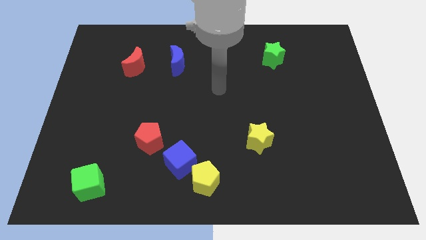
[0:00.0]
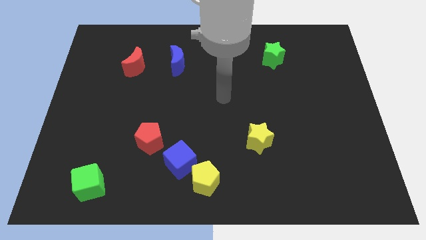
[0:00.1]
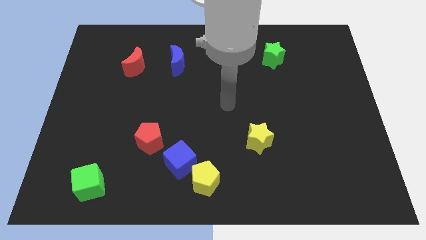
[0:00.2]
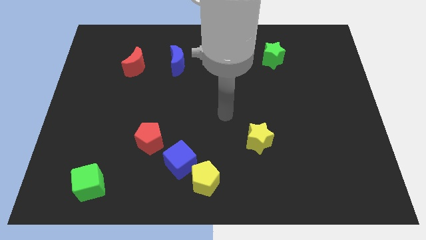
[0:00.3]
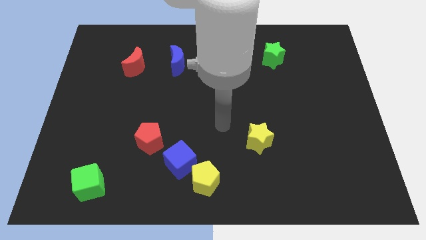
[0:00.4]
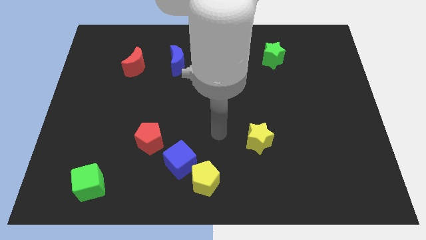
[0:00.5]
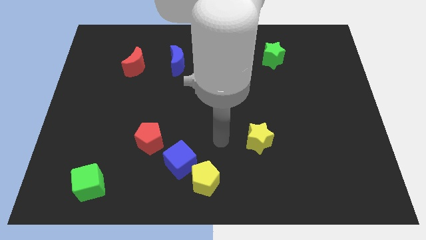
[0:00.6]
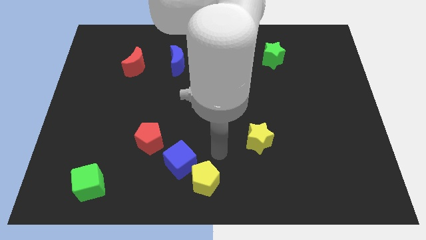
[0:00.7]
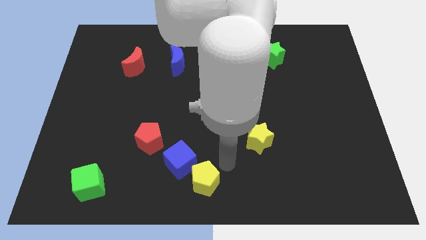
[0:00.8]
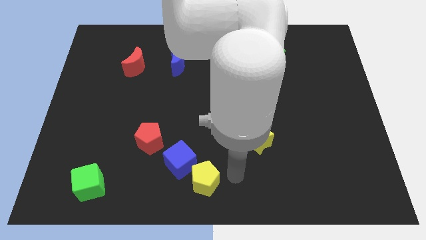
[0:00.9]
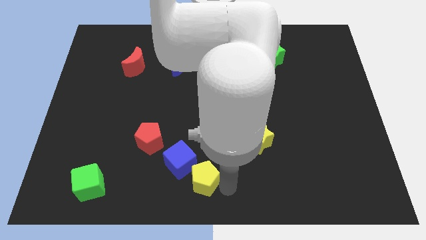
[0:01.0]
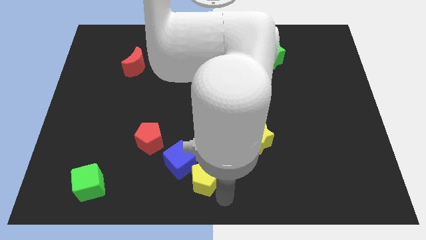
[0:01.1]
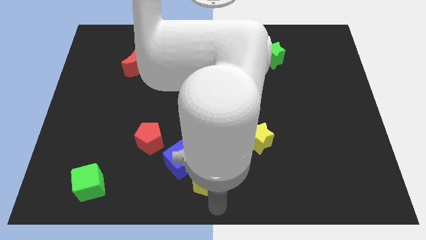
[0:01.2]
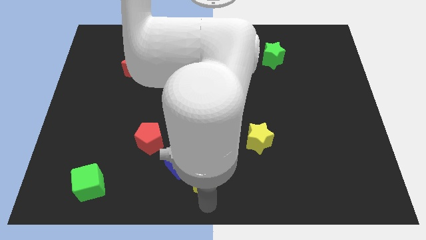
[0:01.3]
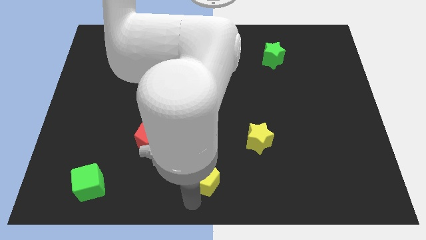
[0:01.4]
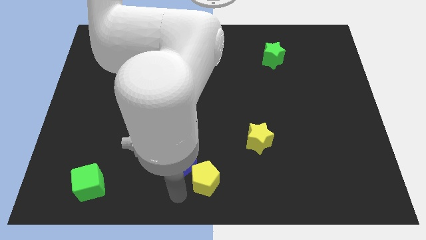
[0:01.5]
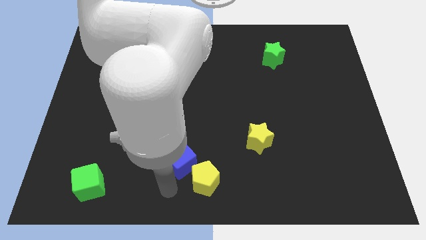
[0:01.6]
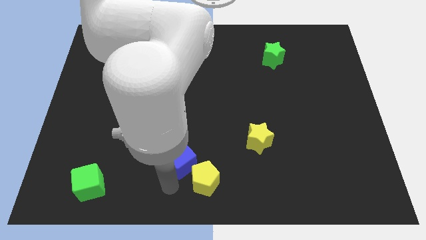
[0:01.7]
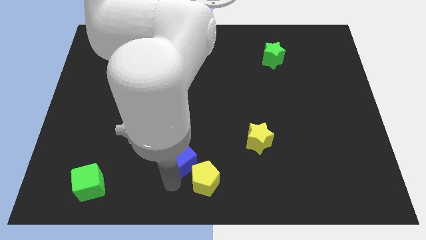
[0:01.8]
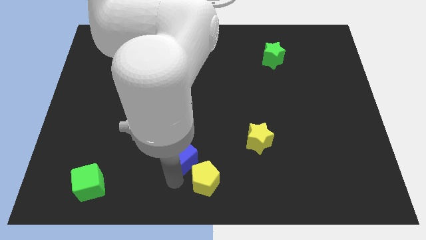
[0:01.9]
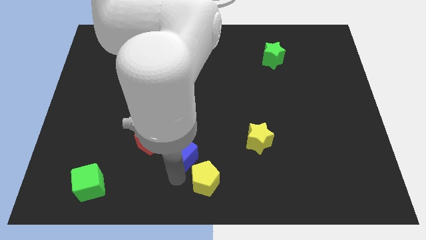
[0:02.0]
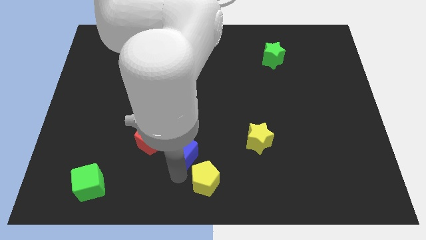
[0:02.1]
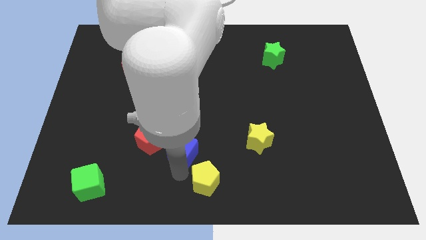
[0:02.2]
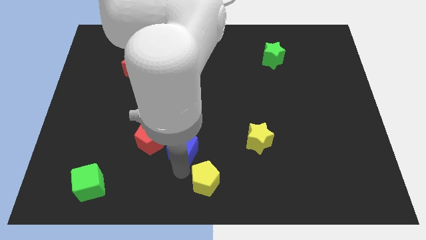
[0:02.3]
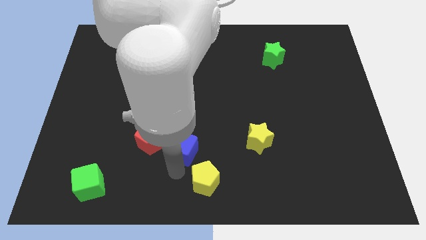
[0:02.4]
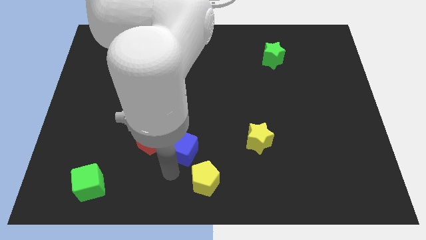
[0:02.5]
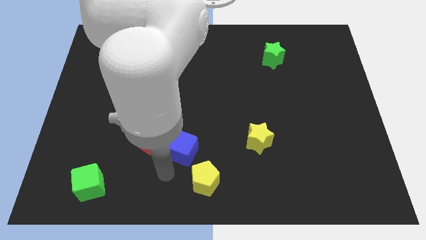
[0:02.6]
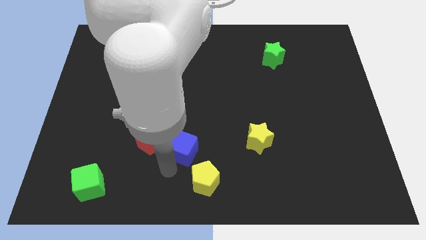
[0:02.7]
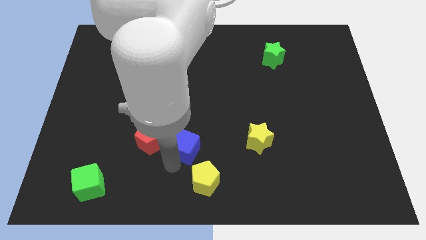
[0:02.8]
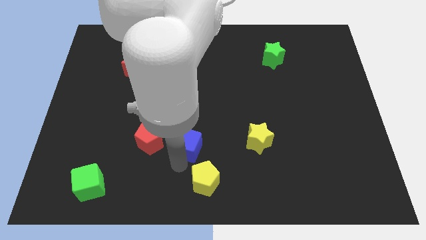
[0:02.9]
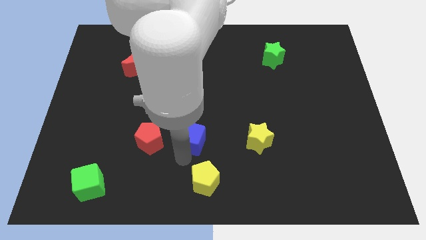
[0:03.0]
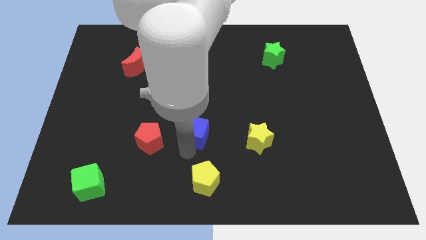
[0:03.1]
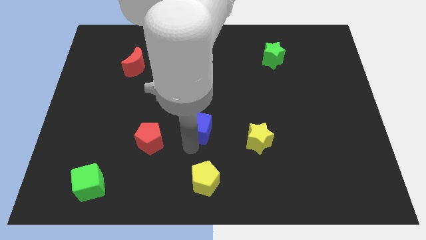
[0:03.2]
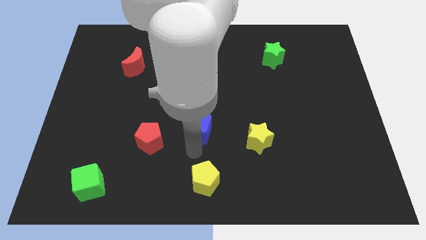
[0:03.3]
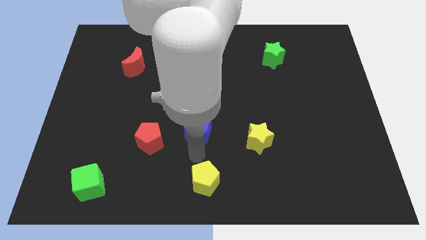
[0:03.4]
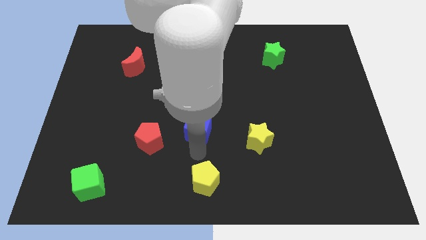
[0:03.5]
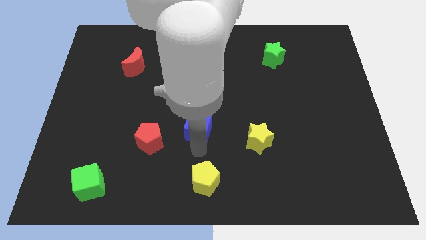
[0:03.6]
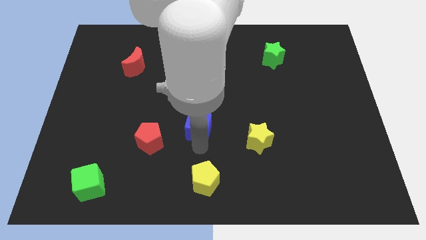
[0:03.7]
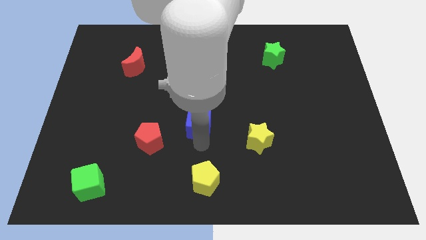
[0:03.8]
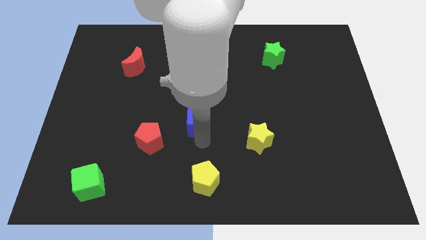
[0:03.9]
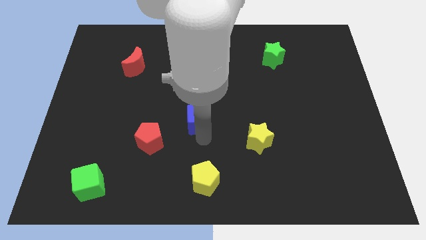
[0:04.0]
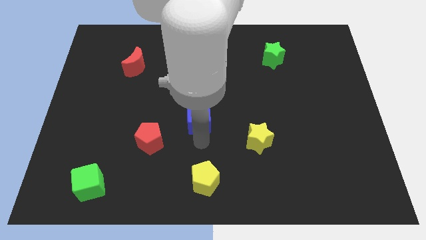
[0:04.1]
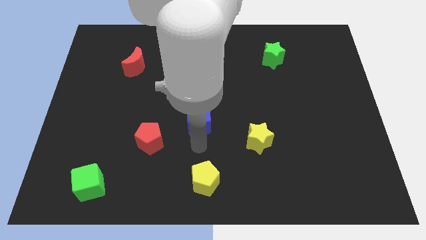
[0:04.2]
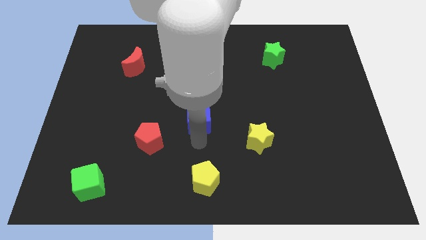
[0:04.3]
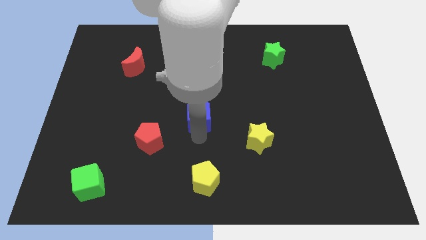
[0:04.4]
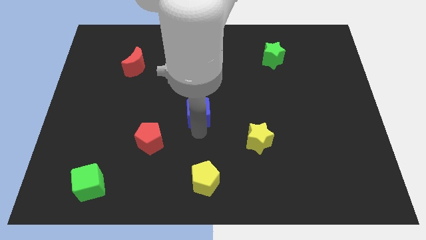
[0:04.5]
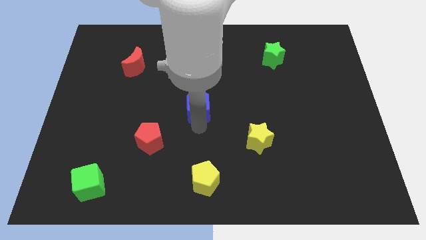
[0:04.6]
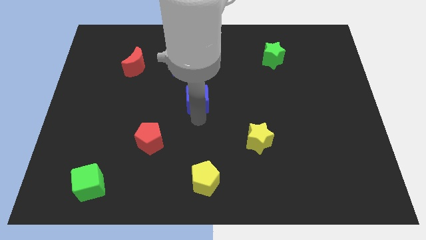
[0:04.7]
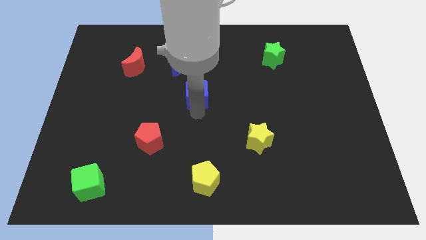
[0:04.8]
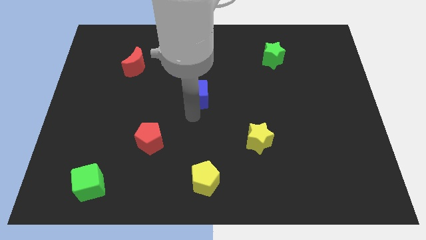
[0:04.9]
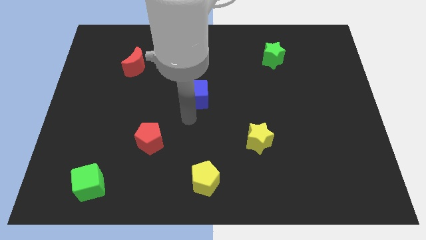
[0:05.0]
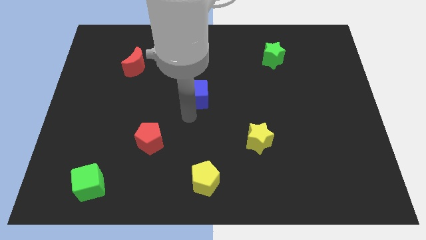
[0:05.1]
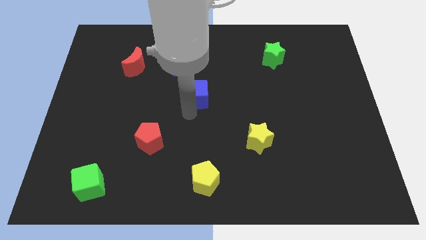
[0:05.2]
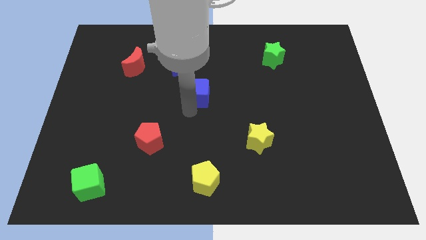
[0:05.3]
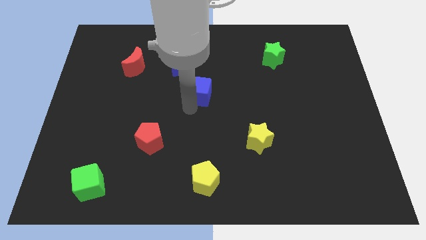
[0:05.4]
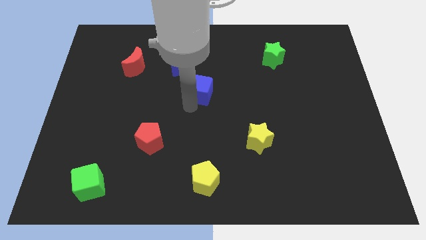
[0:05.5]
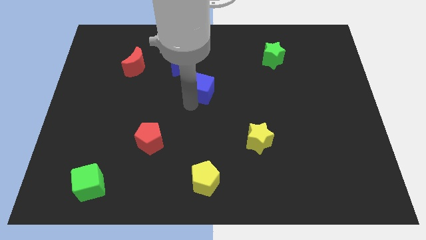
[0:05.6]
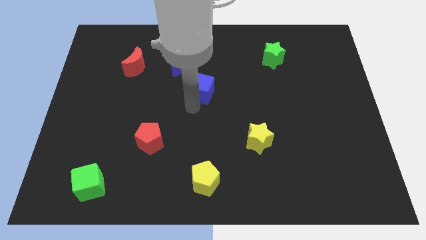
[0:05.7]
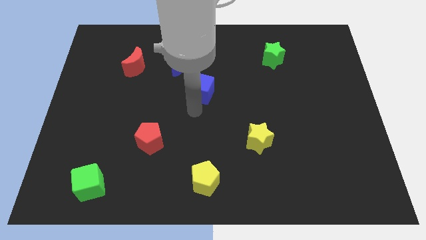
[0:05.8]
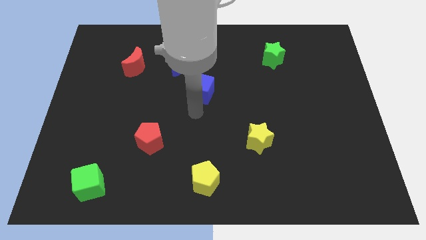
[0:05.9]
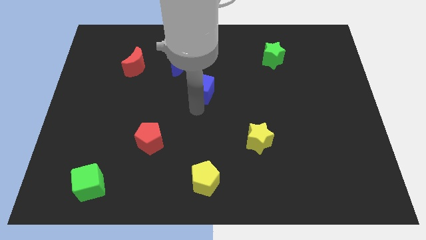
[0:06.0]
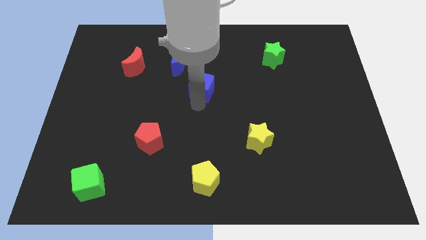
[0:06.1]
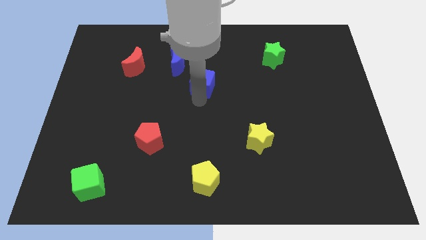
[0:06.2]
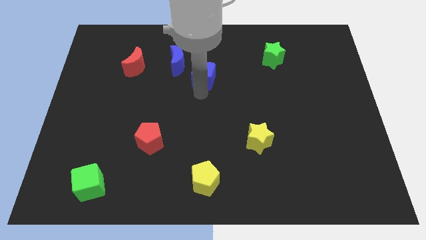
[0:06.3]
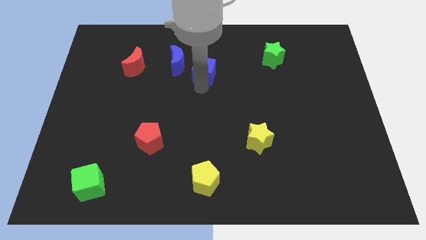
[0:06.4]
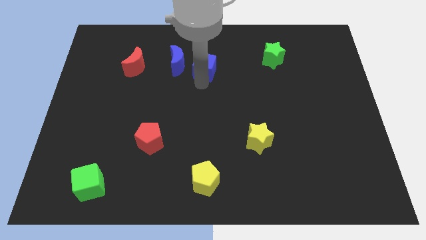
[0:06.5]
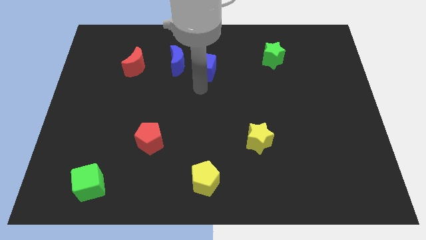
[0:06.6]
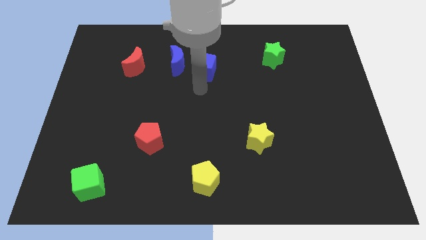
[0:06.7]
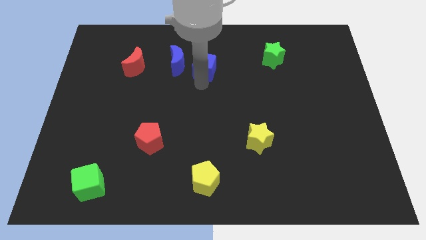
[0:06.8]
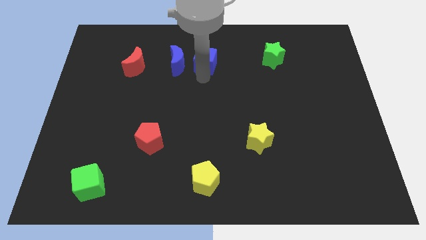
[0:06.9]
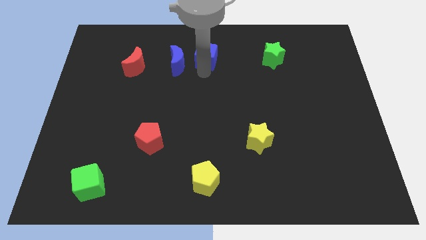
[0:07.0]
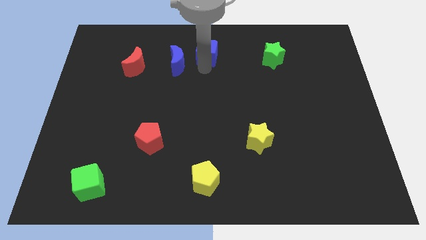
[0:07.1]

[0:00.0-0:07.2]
slide the blue cube to the top side

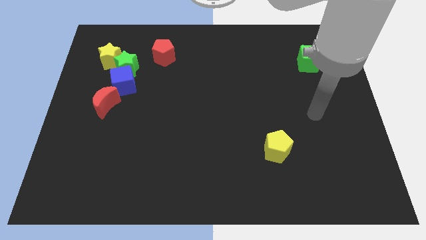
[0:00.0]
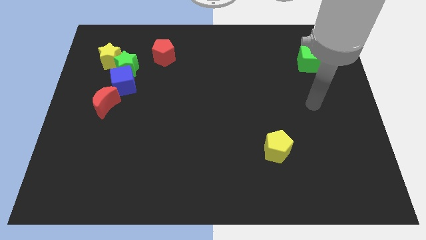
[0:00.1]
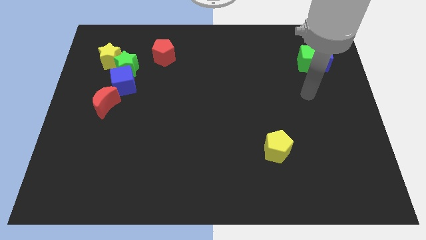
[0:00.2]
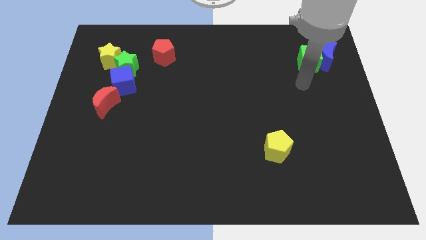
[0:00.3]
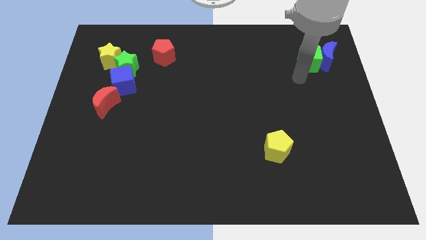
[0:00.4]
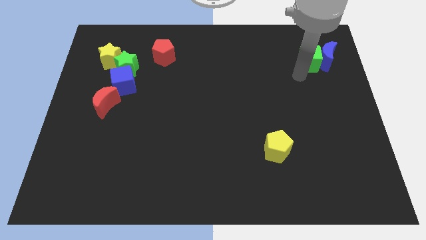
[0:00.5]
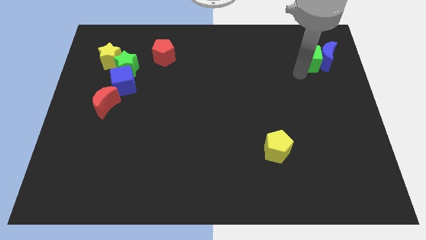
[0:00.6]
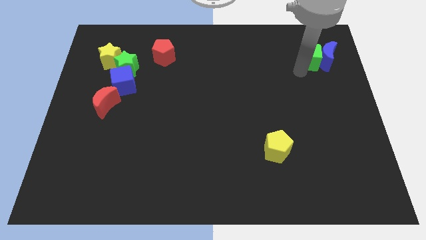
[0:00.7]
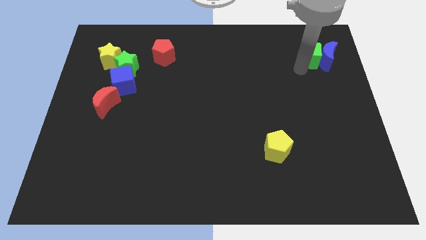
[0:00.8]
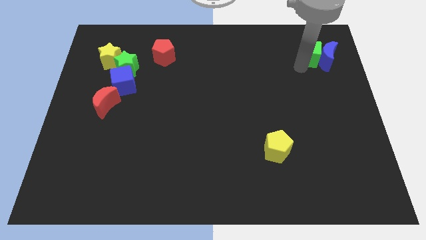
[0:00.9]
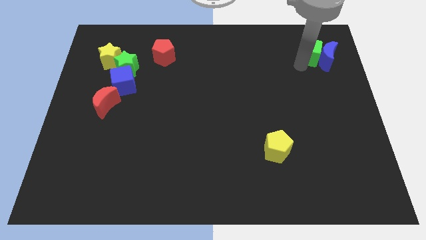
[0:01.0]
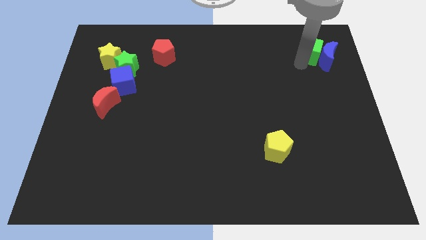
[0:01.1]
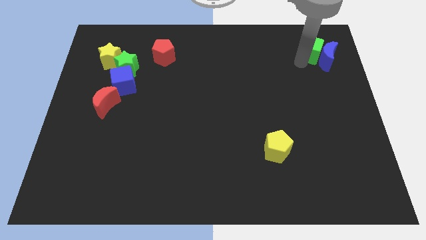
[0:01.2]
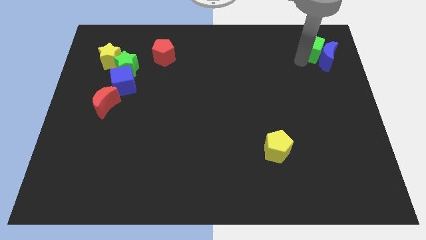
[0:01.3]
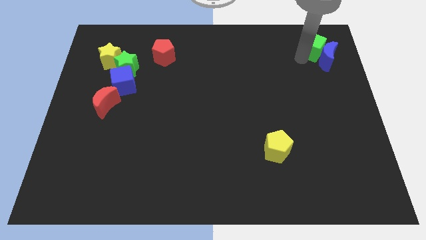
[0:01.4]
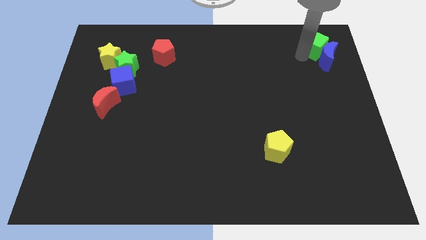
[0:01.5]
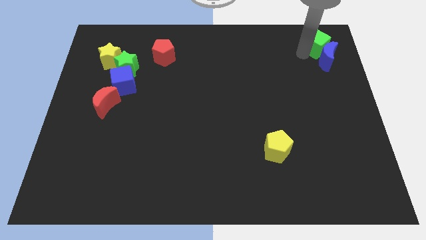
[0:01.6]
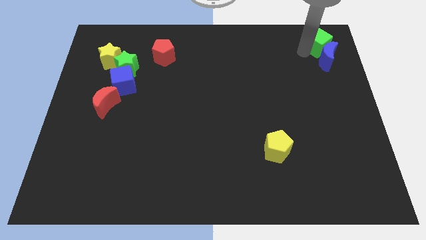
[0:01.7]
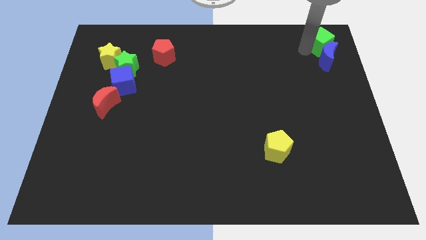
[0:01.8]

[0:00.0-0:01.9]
slide the green cube to the top right of the board
